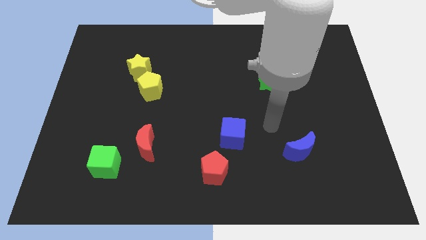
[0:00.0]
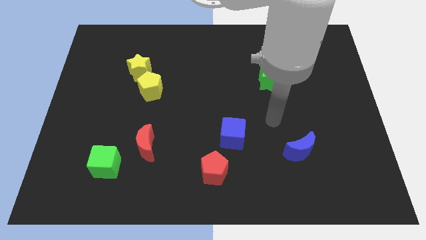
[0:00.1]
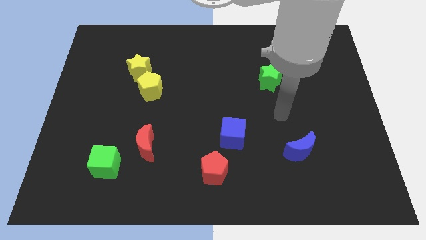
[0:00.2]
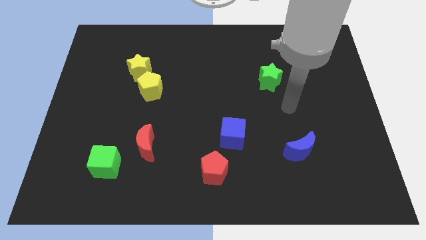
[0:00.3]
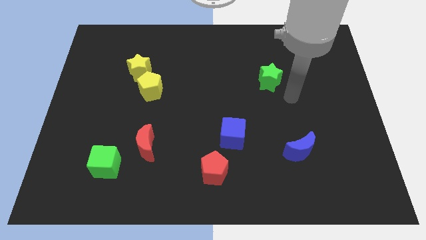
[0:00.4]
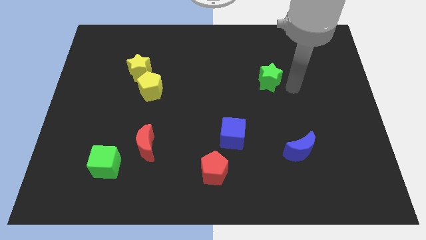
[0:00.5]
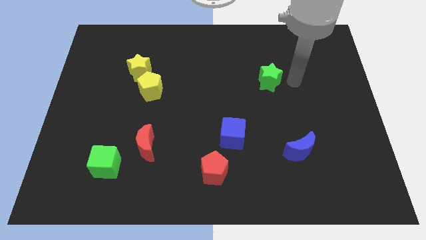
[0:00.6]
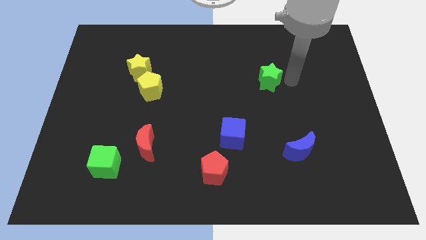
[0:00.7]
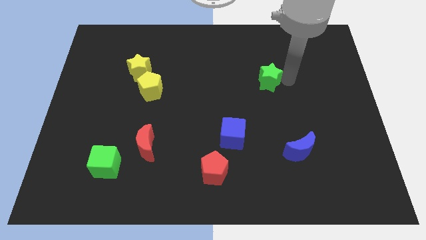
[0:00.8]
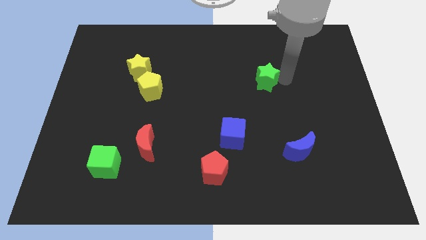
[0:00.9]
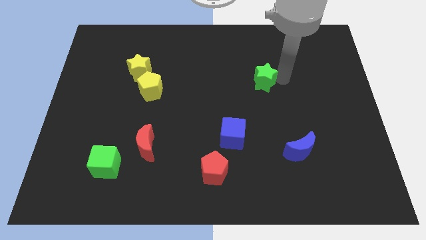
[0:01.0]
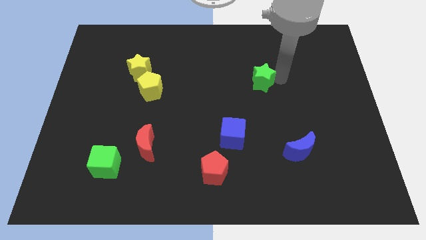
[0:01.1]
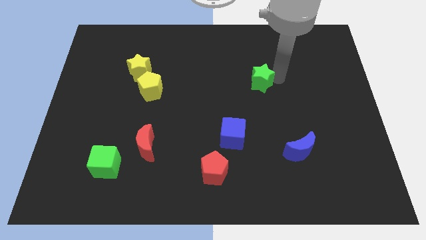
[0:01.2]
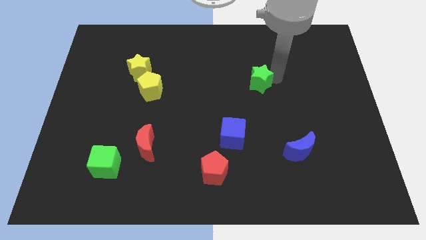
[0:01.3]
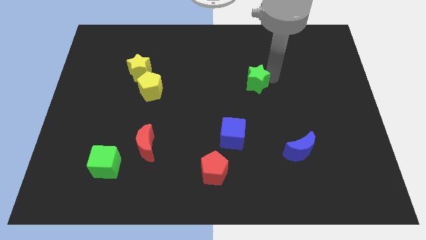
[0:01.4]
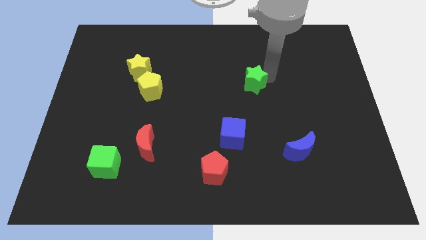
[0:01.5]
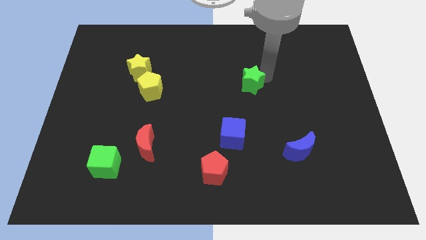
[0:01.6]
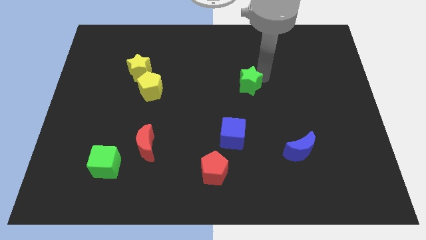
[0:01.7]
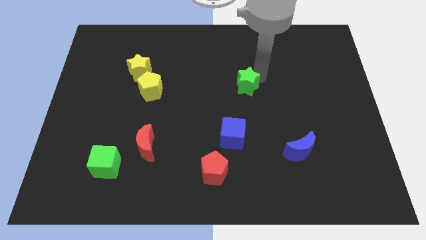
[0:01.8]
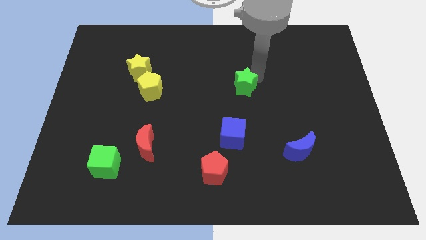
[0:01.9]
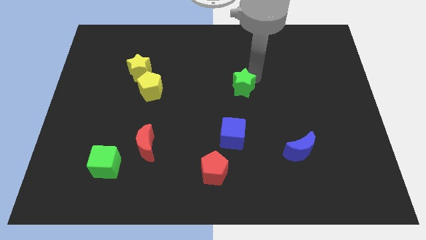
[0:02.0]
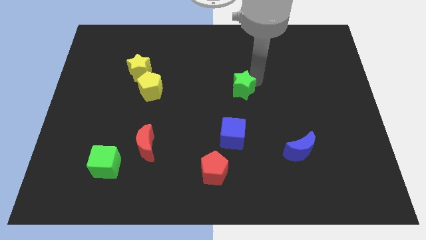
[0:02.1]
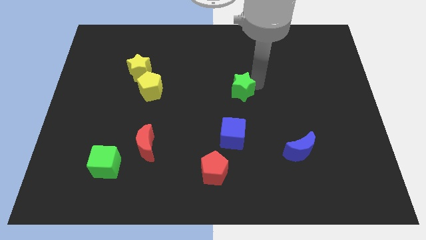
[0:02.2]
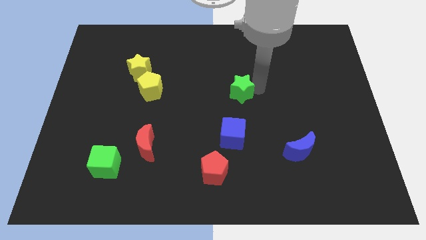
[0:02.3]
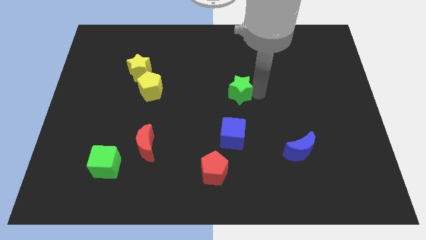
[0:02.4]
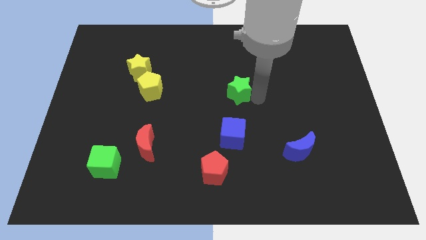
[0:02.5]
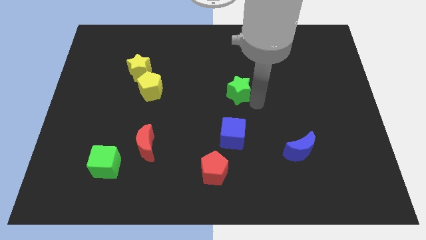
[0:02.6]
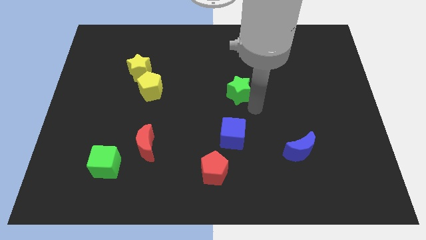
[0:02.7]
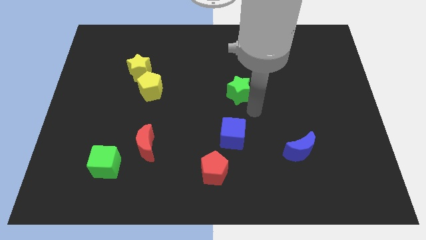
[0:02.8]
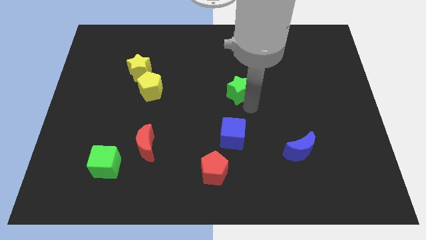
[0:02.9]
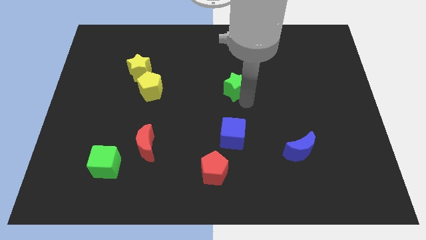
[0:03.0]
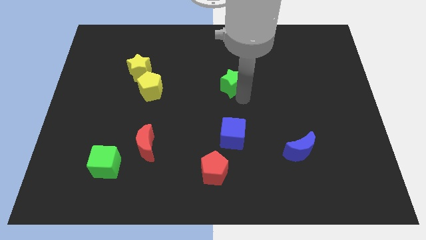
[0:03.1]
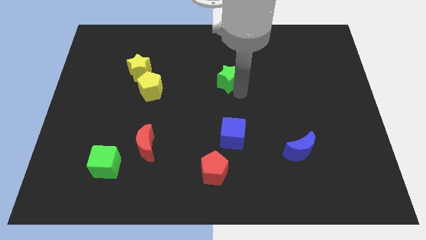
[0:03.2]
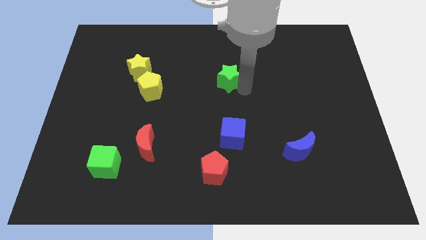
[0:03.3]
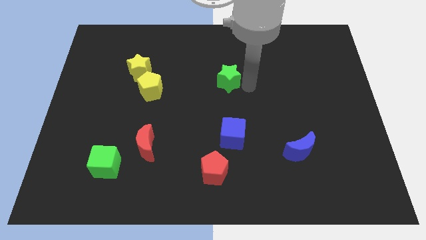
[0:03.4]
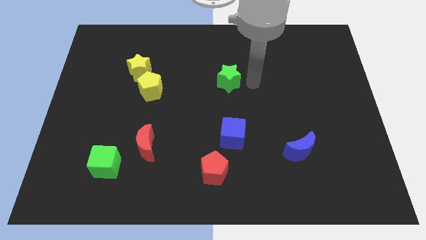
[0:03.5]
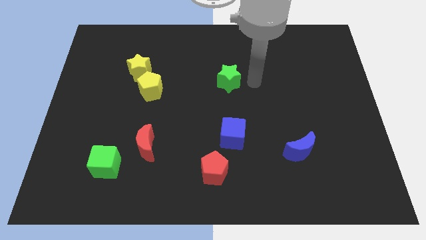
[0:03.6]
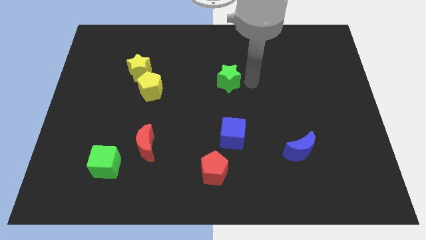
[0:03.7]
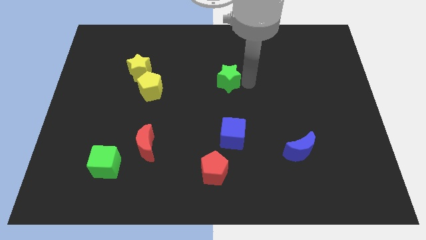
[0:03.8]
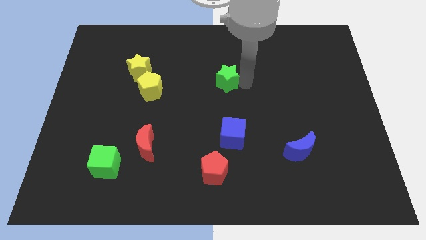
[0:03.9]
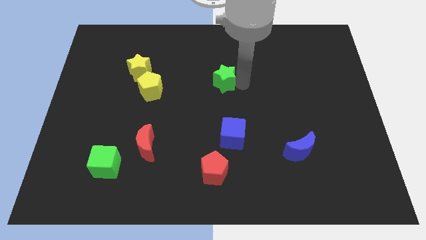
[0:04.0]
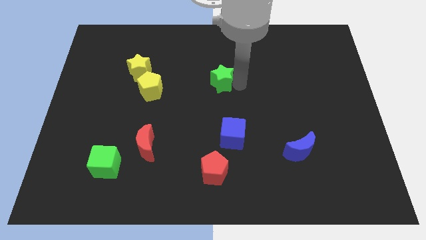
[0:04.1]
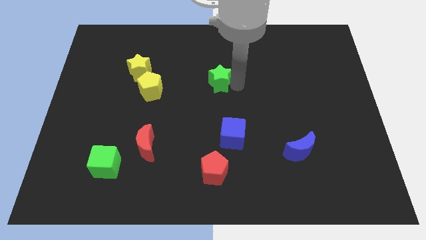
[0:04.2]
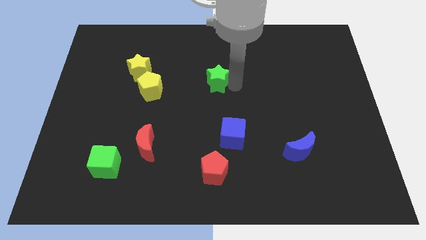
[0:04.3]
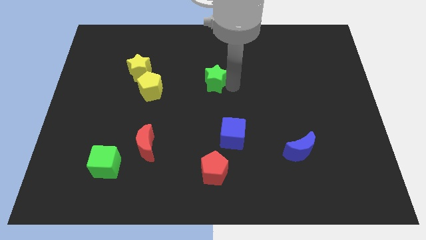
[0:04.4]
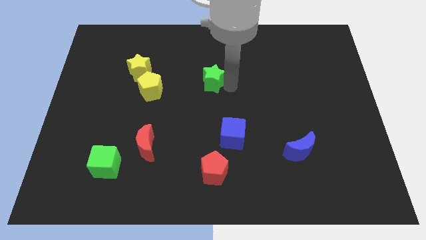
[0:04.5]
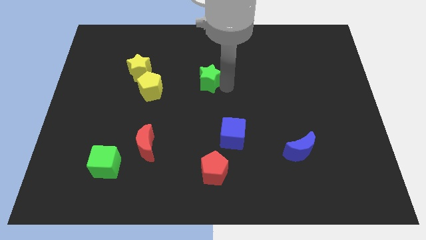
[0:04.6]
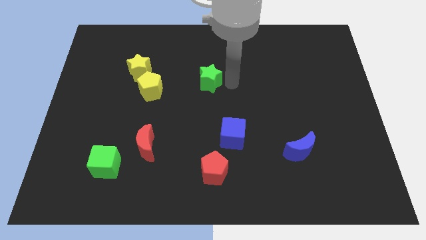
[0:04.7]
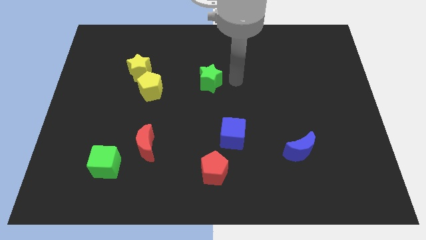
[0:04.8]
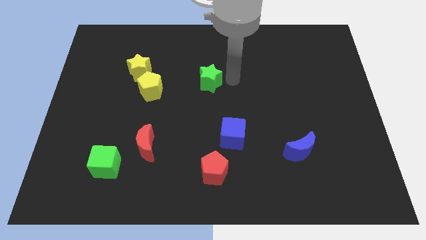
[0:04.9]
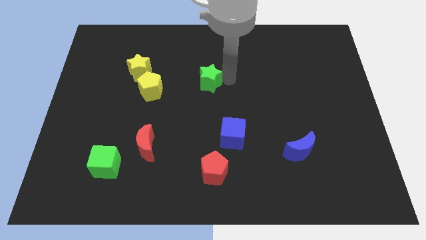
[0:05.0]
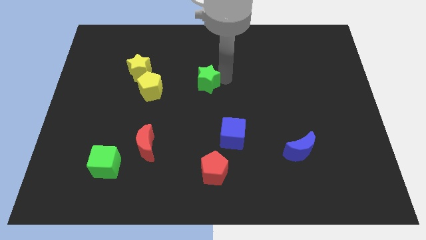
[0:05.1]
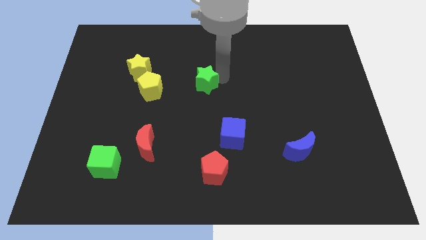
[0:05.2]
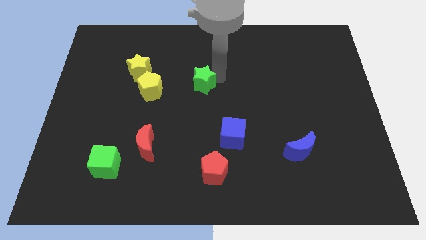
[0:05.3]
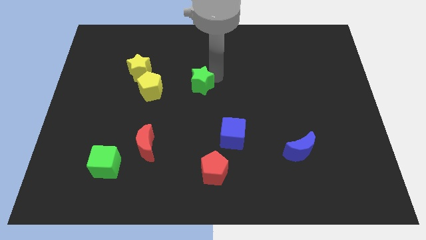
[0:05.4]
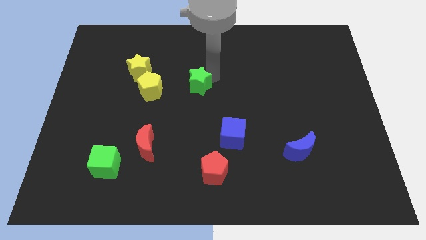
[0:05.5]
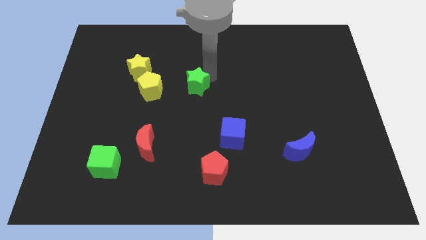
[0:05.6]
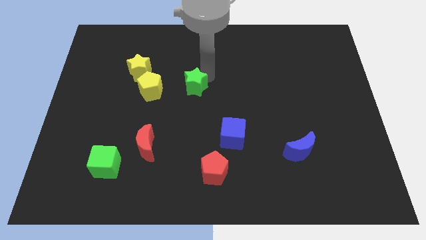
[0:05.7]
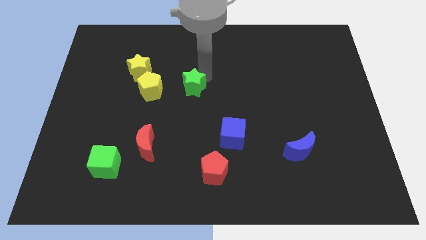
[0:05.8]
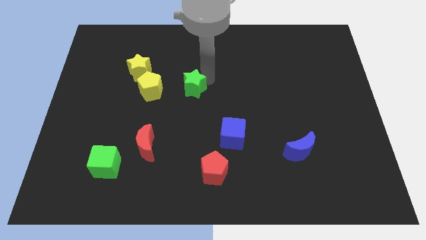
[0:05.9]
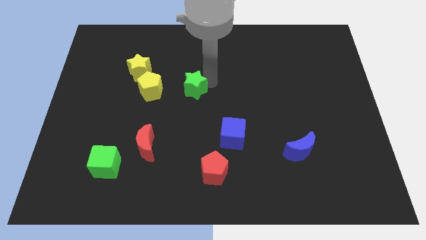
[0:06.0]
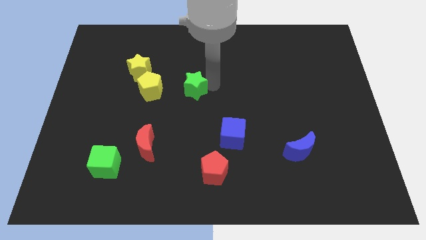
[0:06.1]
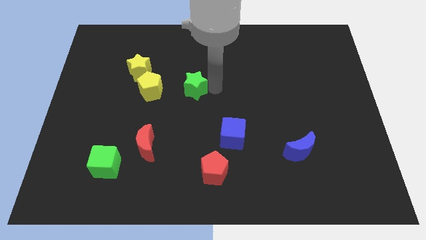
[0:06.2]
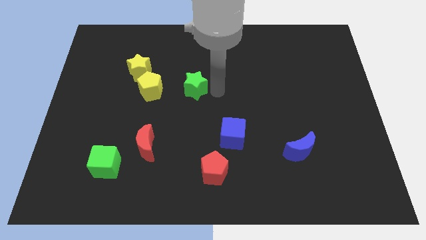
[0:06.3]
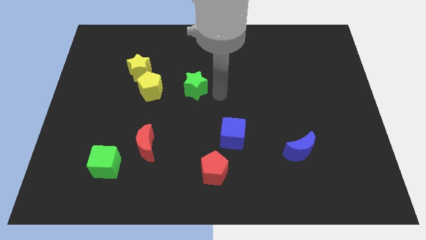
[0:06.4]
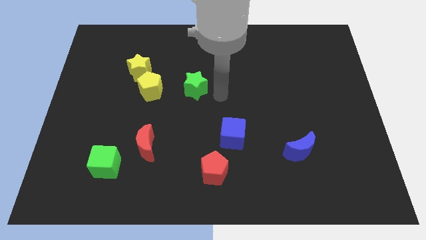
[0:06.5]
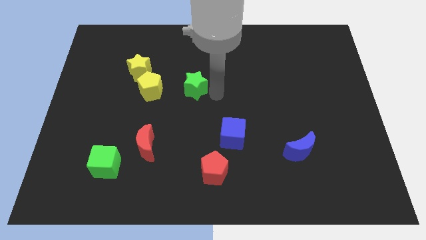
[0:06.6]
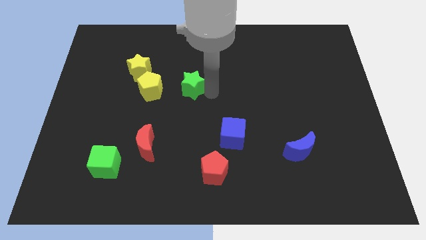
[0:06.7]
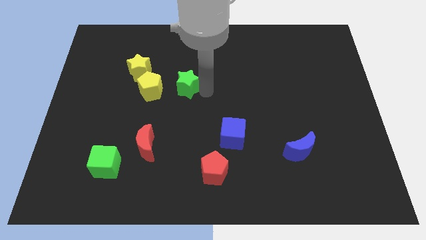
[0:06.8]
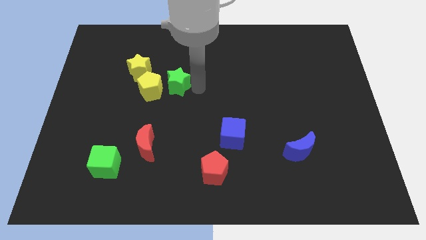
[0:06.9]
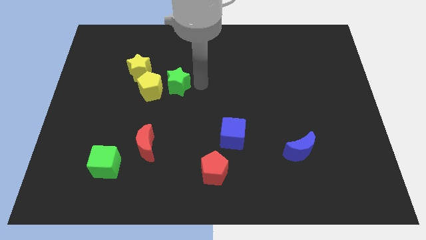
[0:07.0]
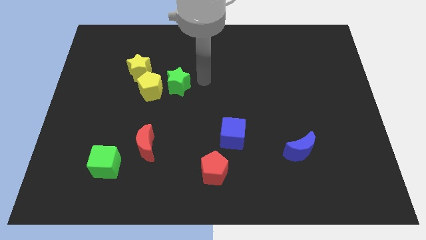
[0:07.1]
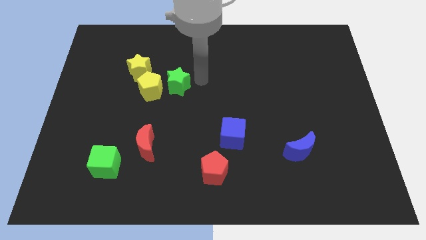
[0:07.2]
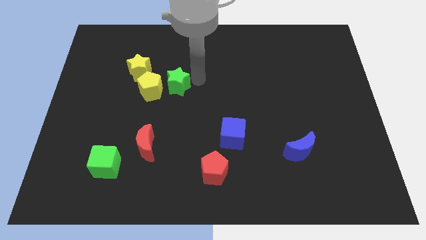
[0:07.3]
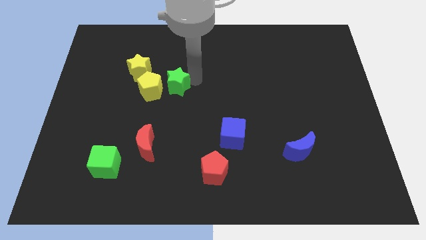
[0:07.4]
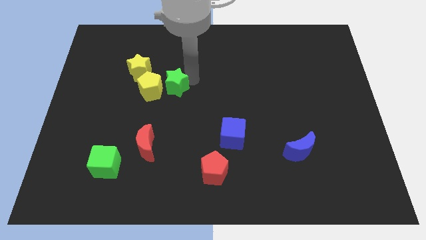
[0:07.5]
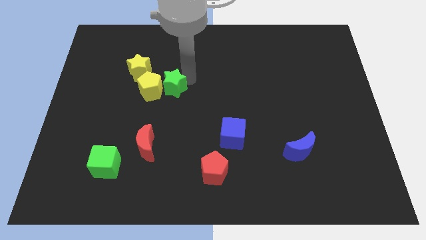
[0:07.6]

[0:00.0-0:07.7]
slide the green star to the yellow pentagon
